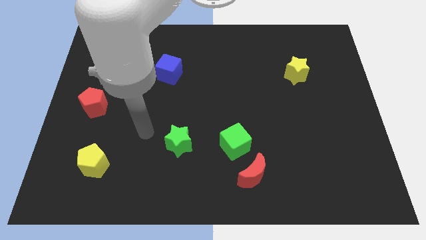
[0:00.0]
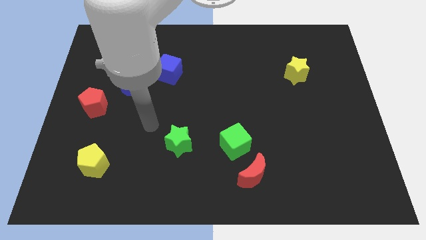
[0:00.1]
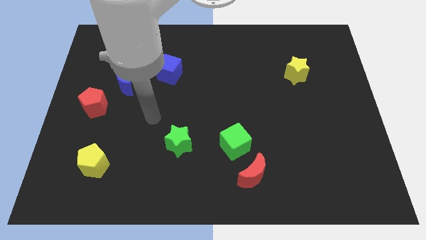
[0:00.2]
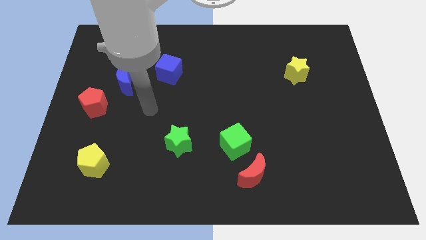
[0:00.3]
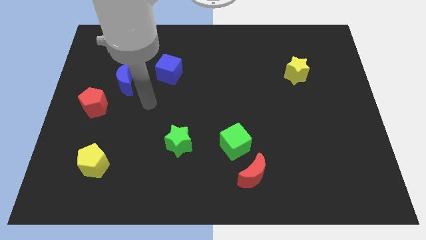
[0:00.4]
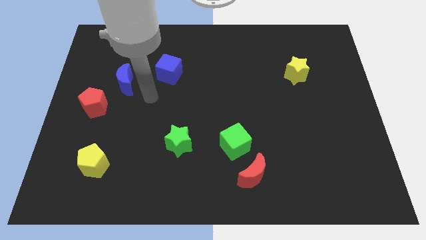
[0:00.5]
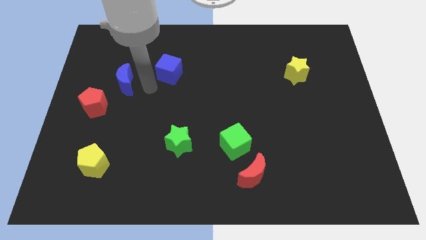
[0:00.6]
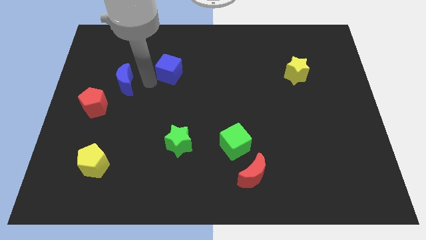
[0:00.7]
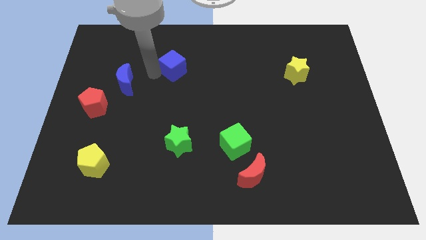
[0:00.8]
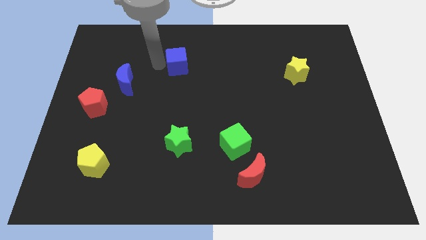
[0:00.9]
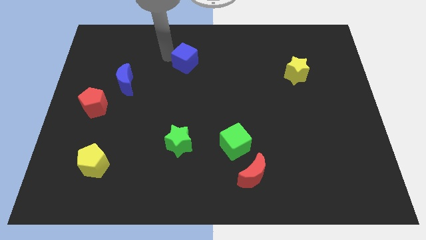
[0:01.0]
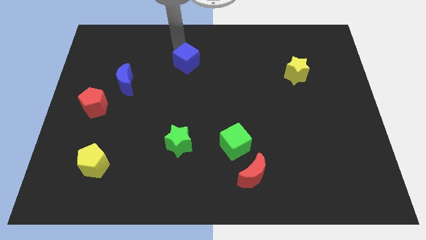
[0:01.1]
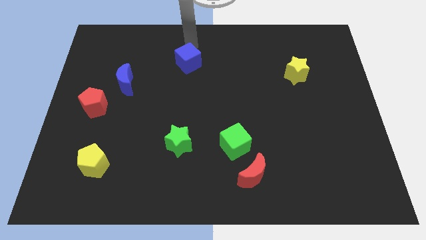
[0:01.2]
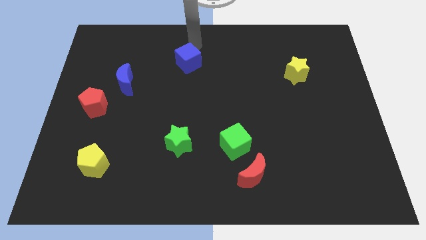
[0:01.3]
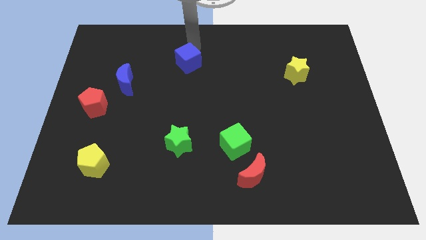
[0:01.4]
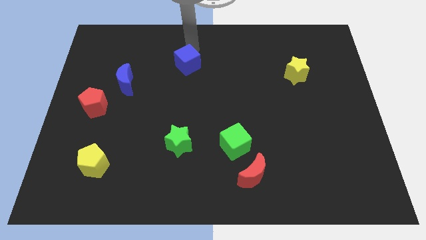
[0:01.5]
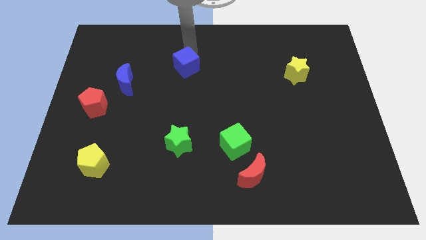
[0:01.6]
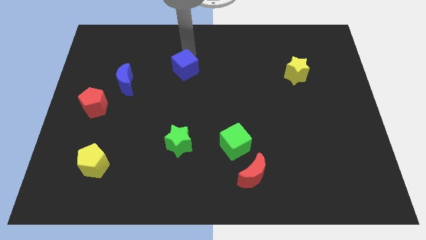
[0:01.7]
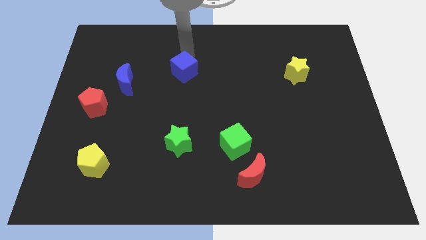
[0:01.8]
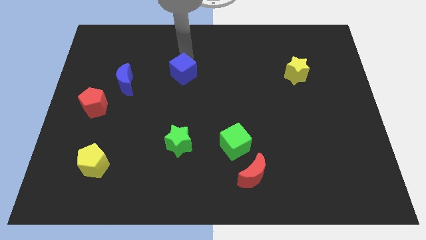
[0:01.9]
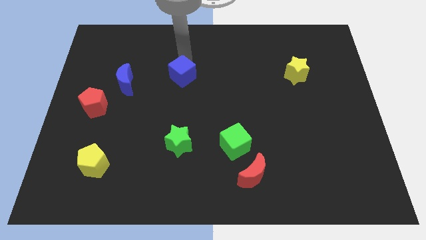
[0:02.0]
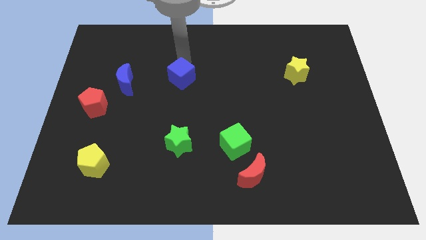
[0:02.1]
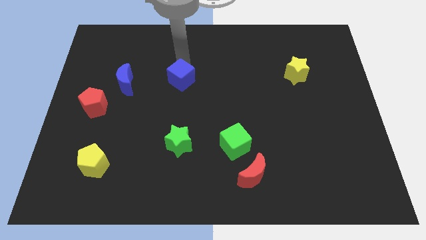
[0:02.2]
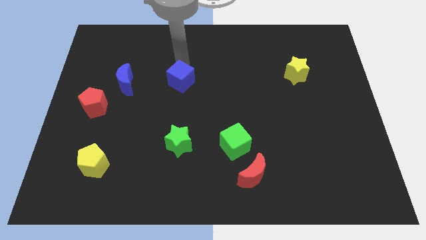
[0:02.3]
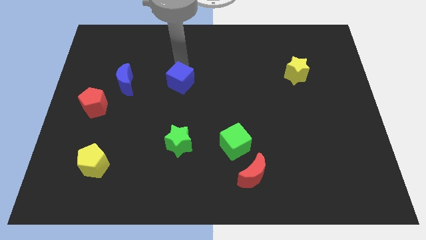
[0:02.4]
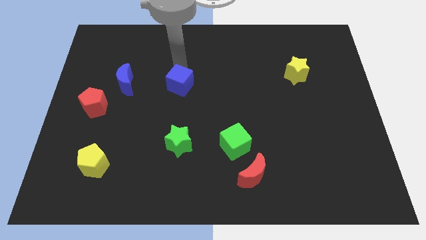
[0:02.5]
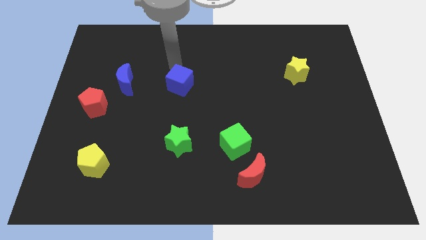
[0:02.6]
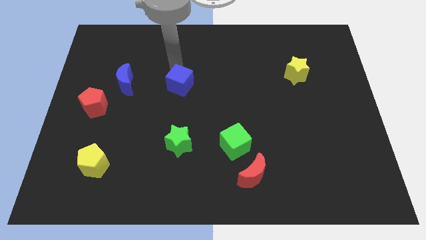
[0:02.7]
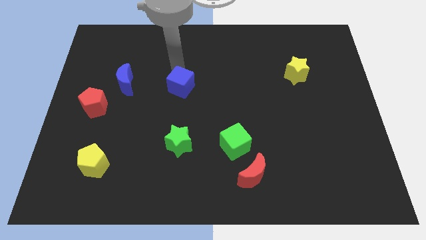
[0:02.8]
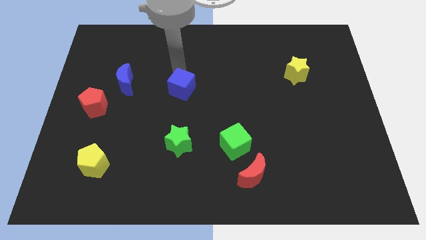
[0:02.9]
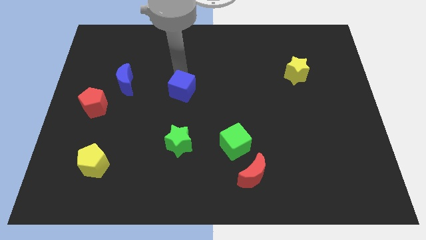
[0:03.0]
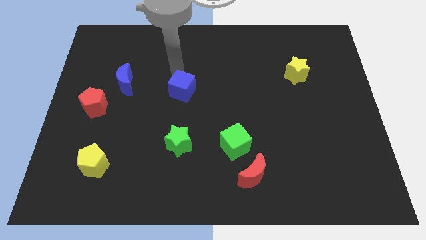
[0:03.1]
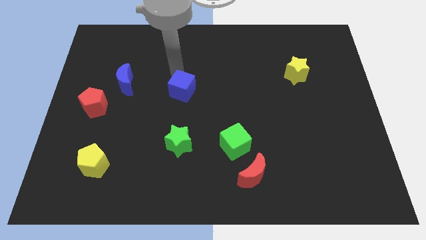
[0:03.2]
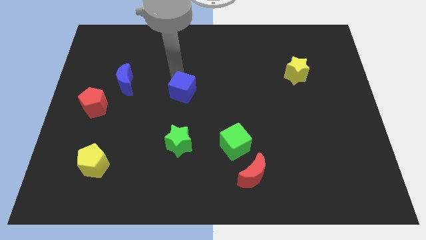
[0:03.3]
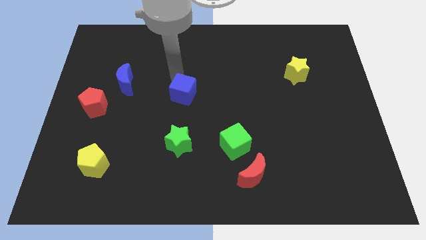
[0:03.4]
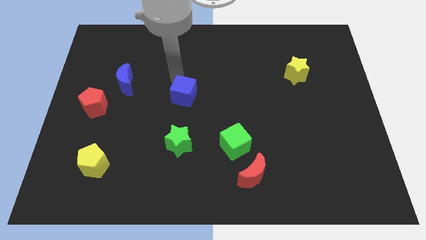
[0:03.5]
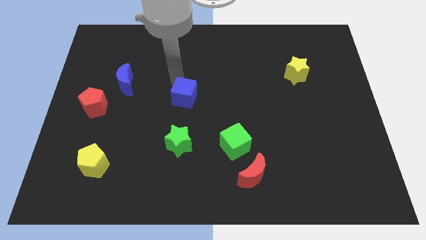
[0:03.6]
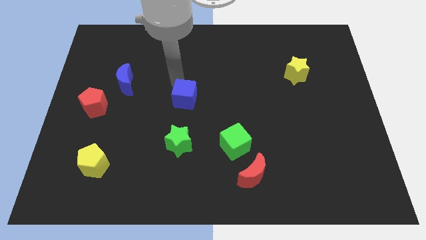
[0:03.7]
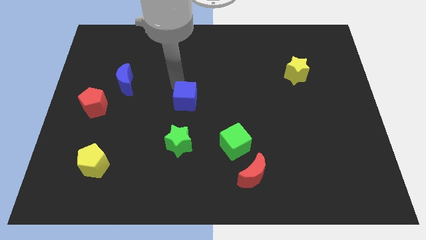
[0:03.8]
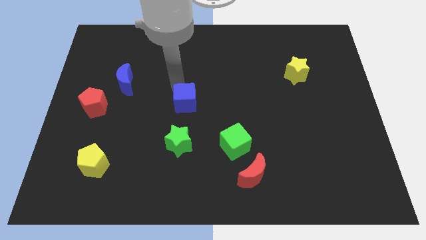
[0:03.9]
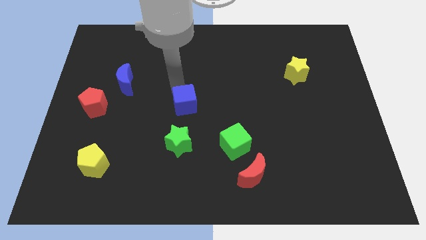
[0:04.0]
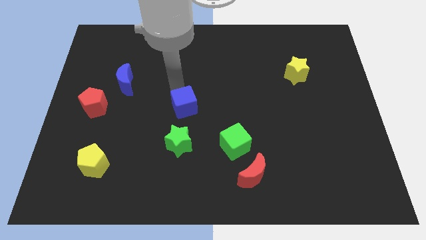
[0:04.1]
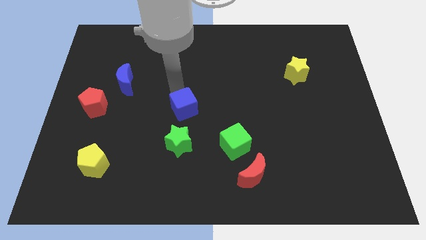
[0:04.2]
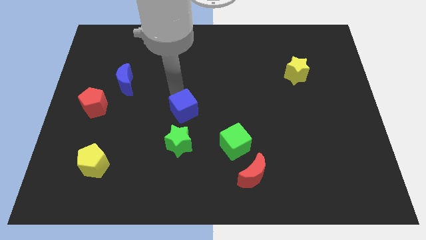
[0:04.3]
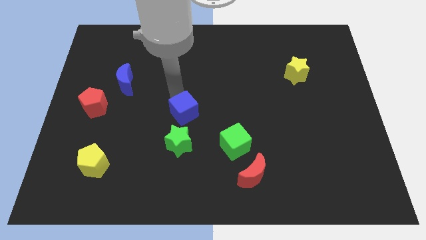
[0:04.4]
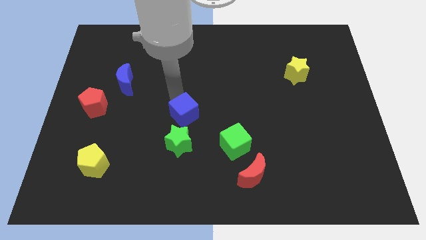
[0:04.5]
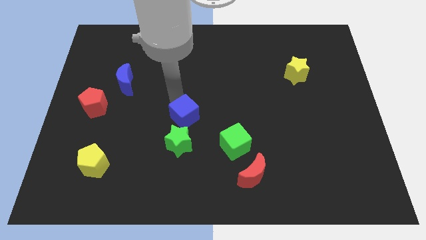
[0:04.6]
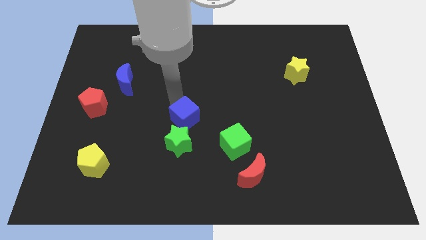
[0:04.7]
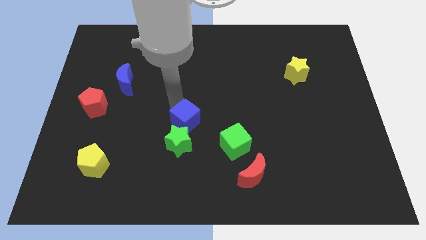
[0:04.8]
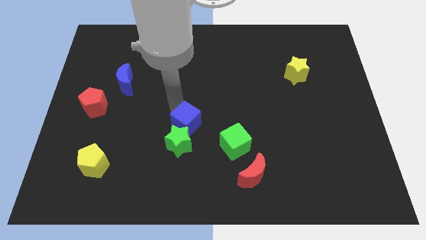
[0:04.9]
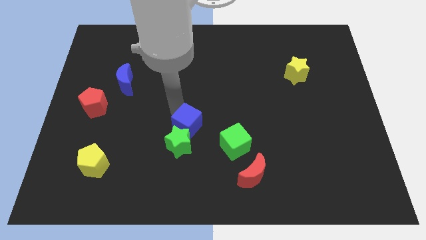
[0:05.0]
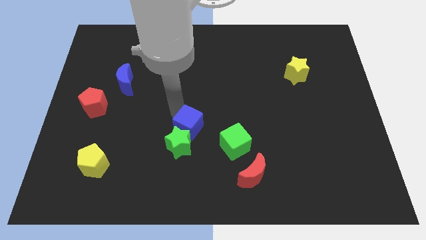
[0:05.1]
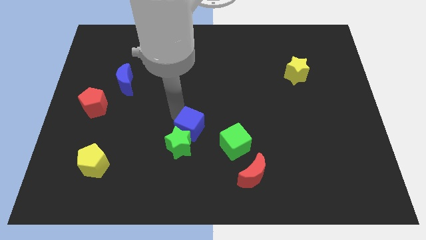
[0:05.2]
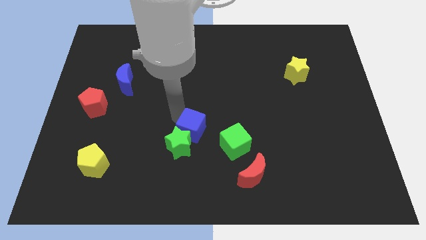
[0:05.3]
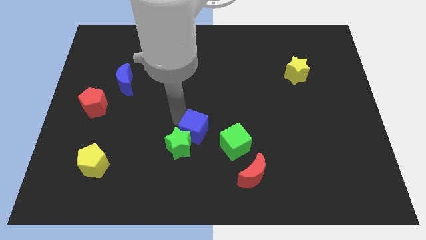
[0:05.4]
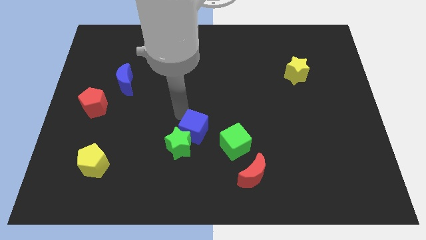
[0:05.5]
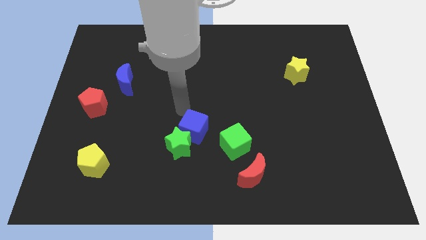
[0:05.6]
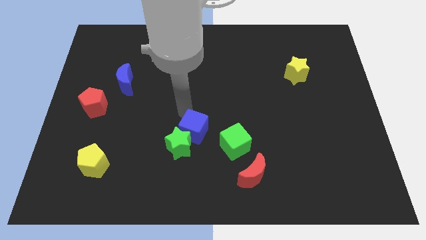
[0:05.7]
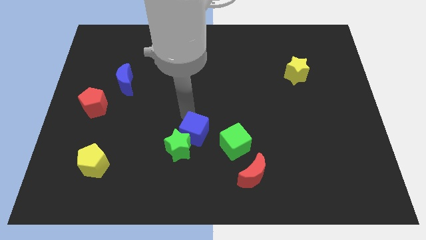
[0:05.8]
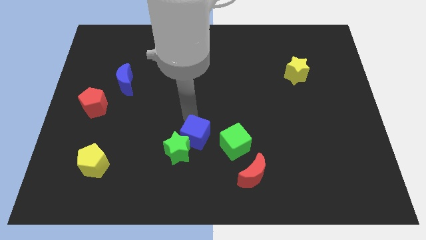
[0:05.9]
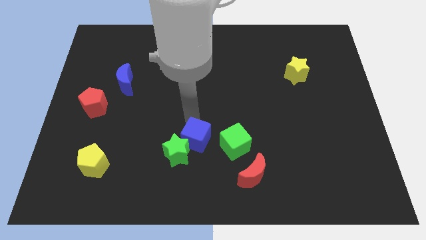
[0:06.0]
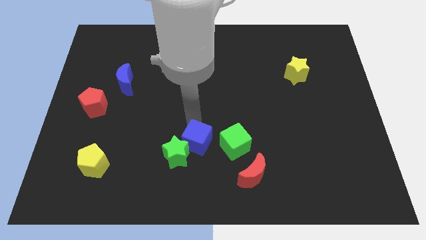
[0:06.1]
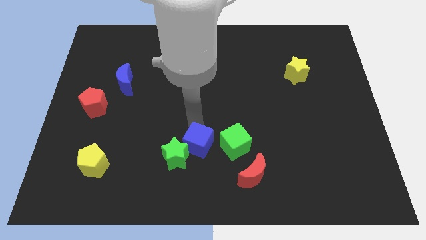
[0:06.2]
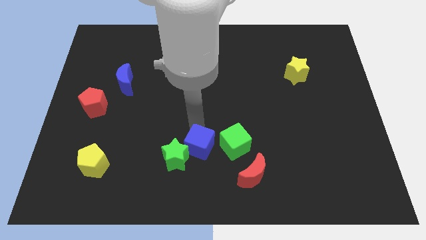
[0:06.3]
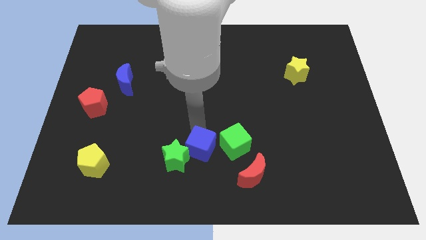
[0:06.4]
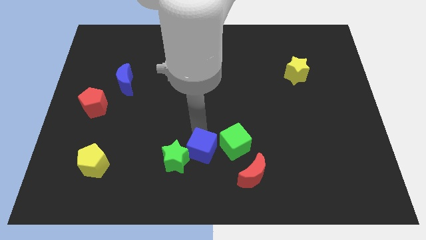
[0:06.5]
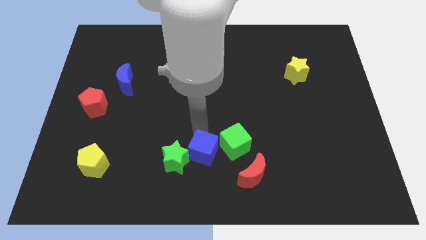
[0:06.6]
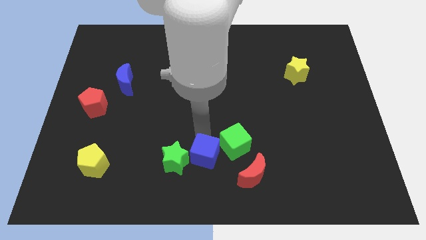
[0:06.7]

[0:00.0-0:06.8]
move the blue cube to the bottom
